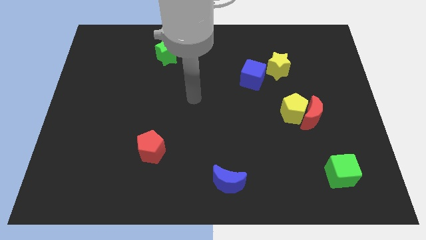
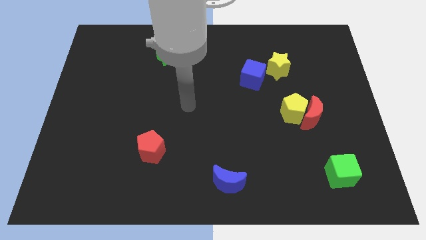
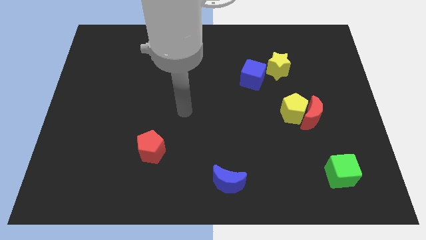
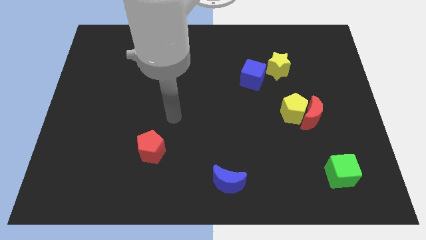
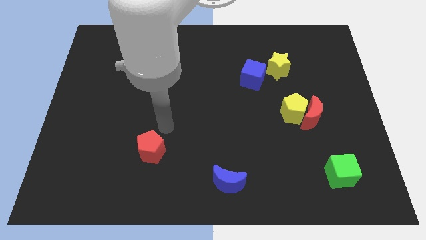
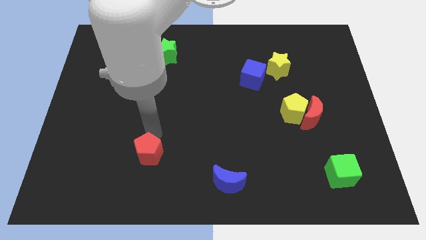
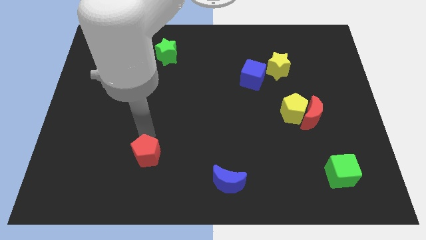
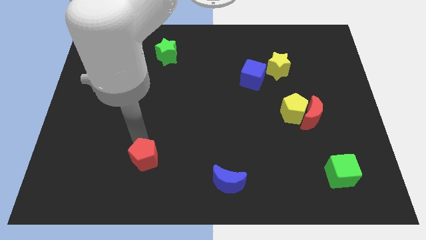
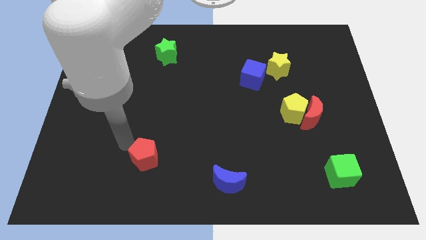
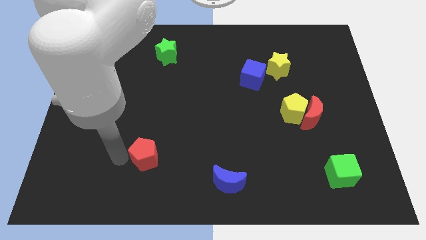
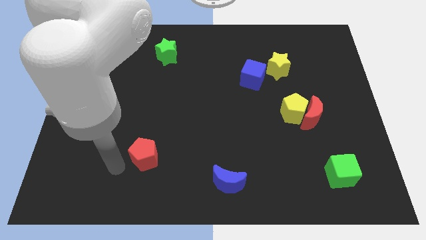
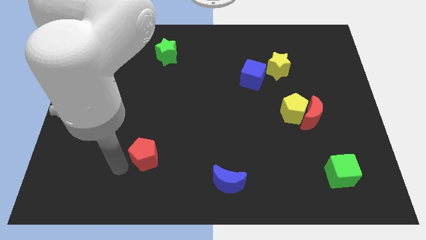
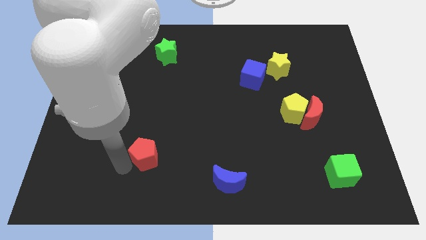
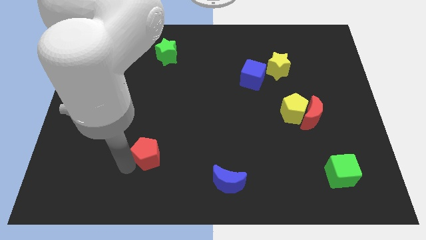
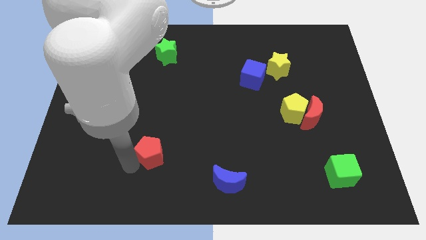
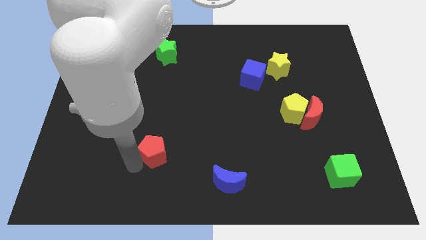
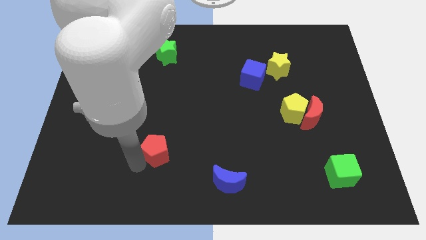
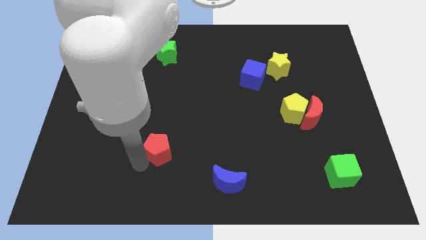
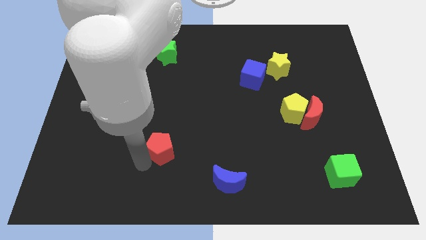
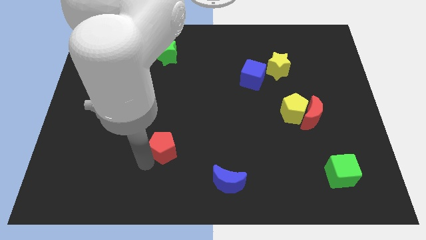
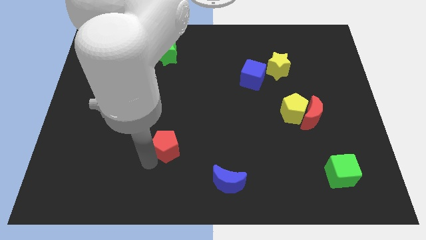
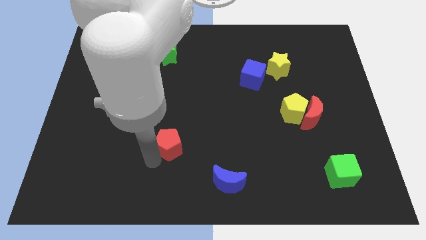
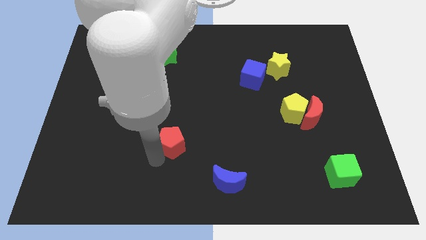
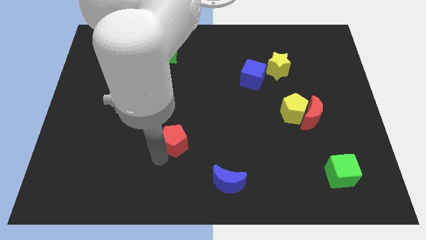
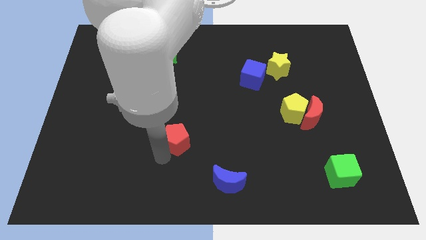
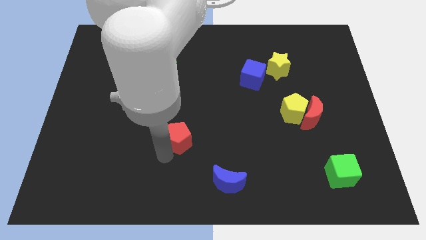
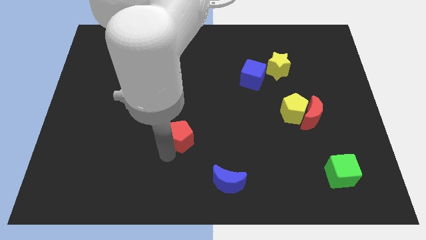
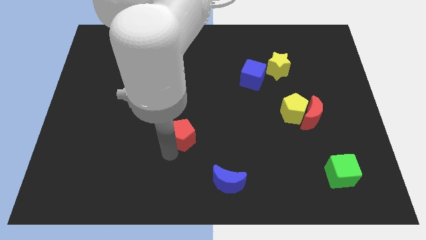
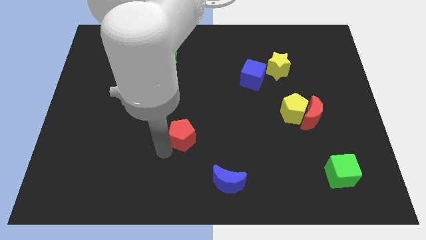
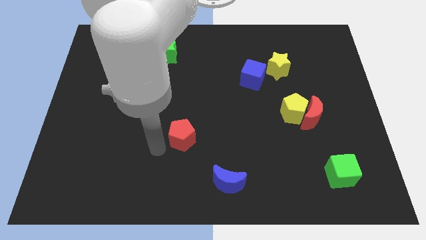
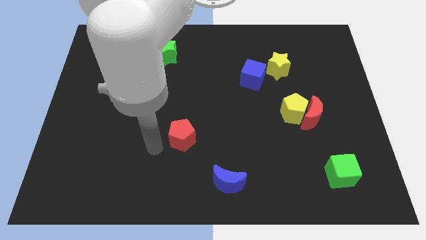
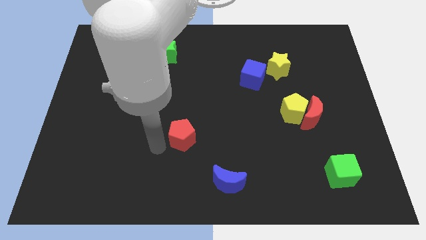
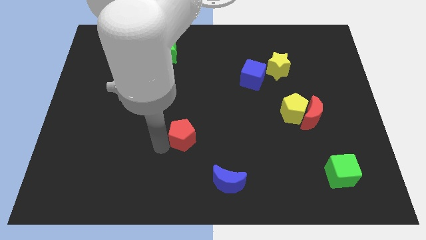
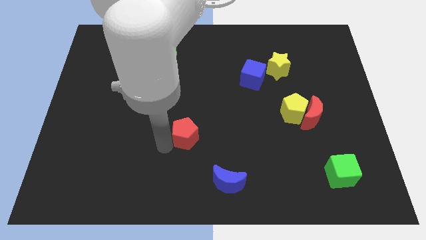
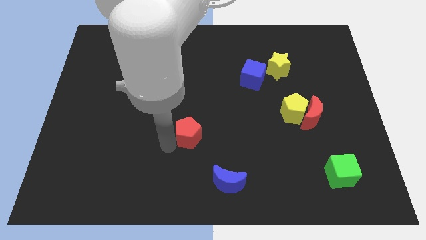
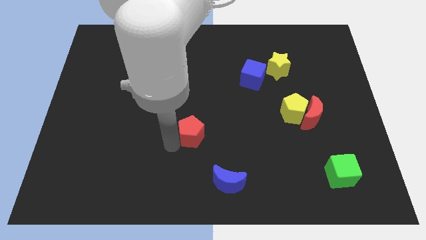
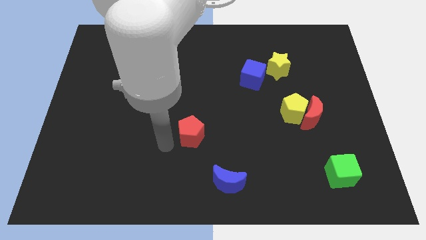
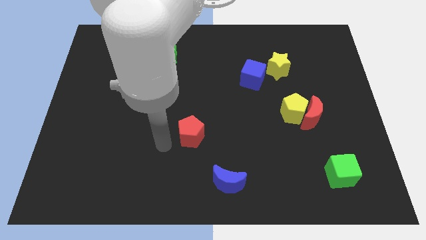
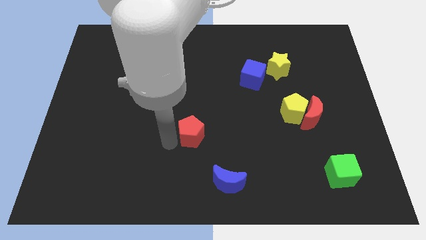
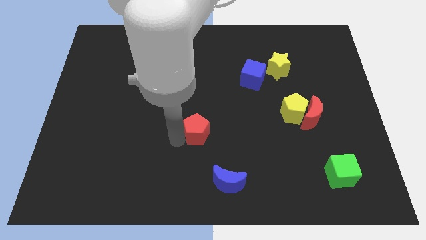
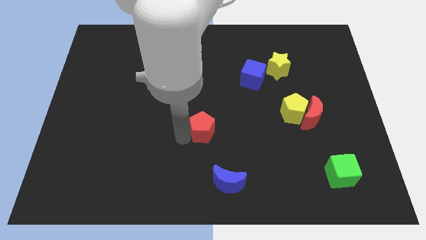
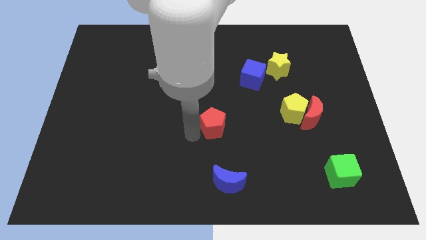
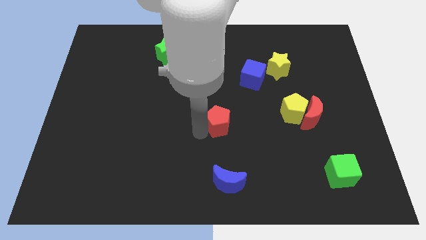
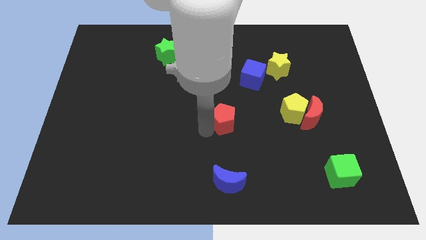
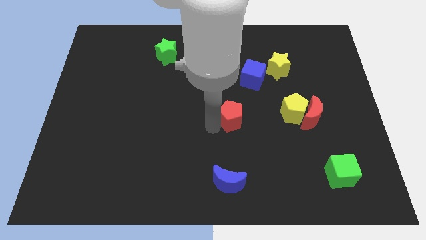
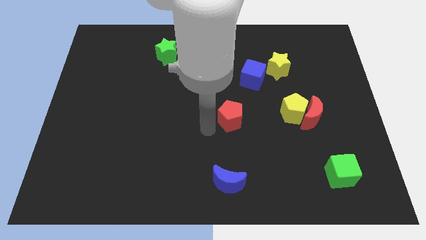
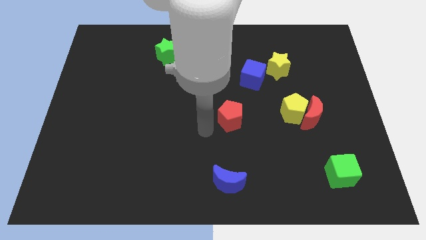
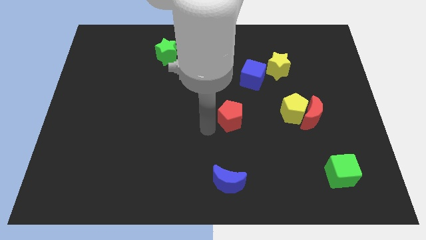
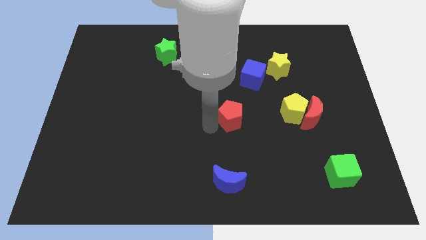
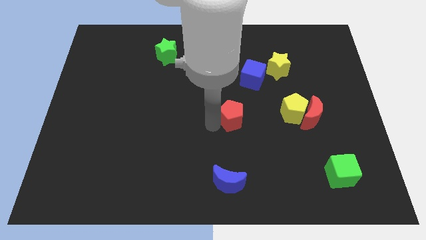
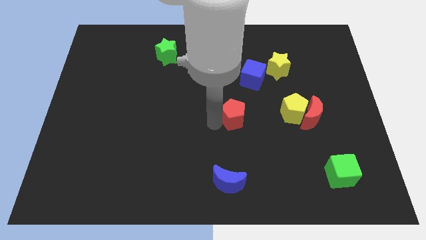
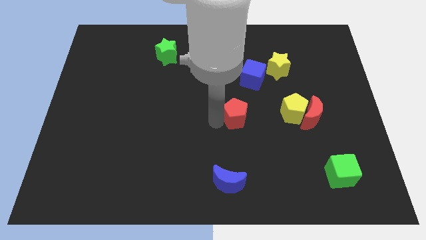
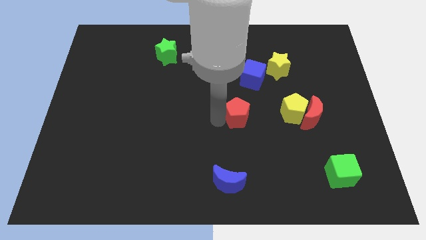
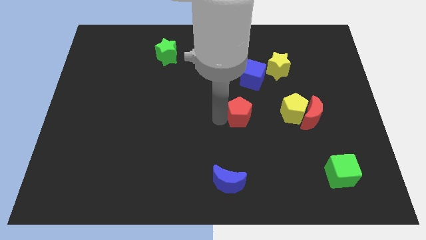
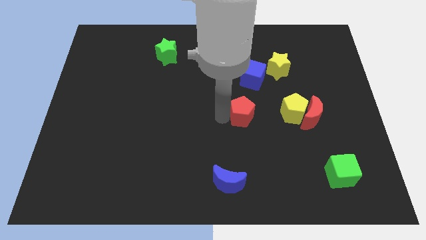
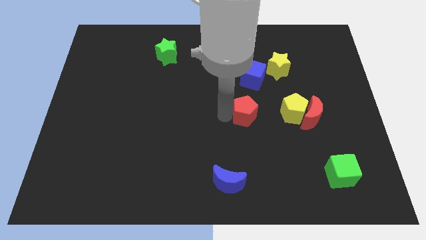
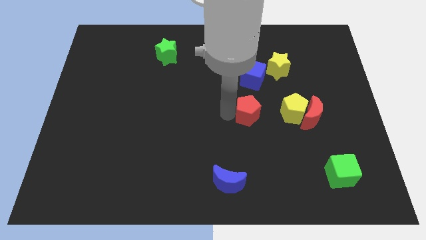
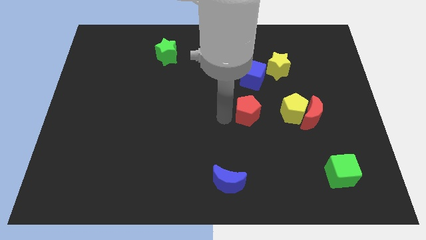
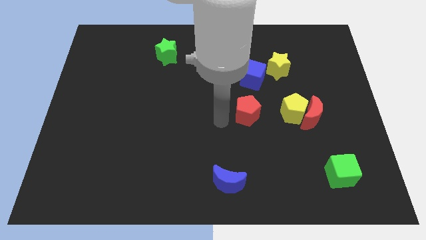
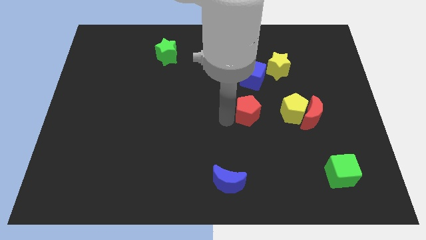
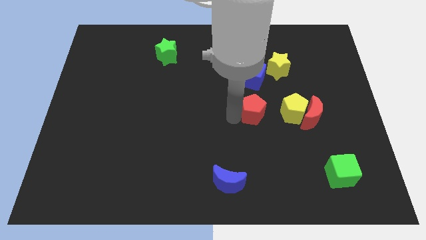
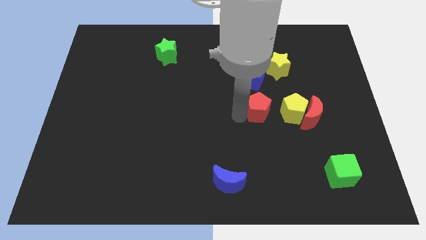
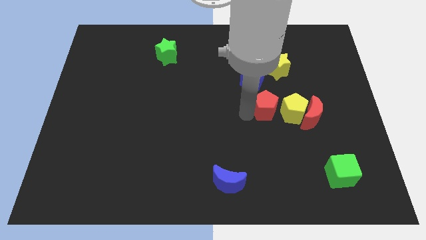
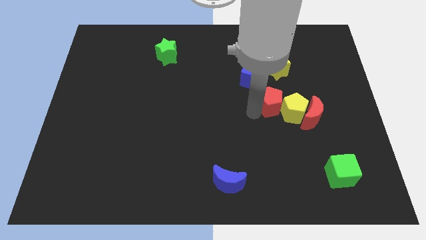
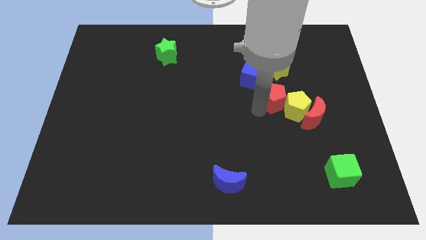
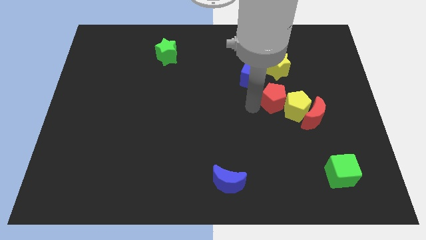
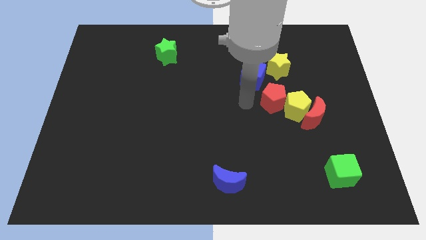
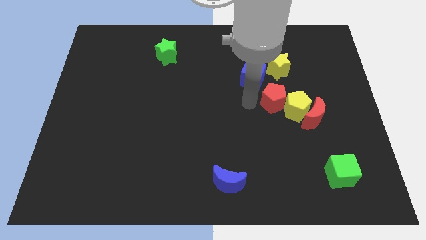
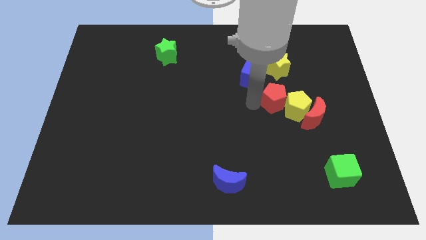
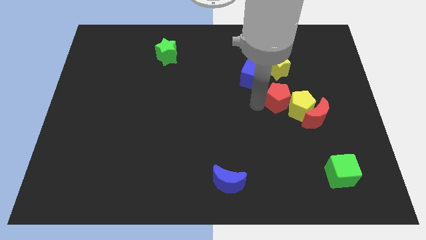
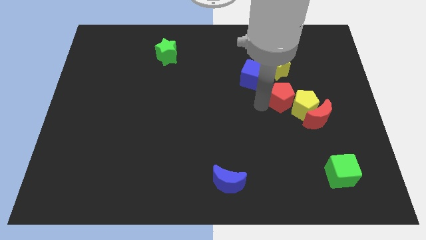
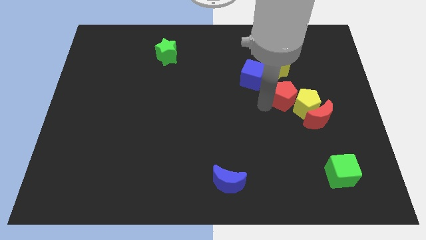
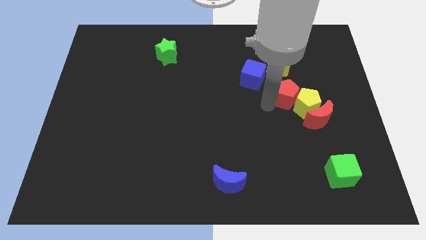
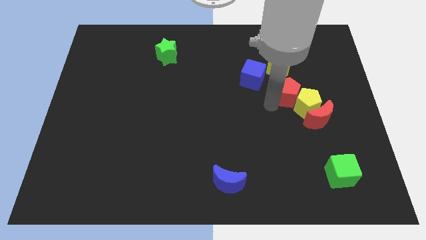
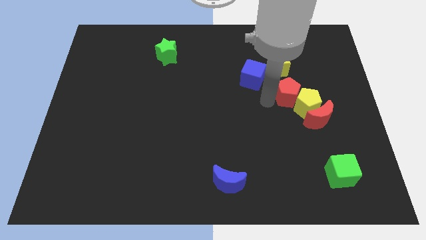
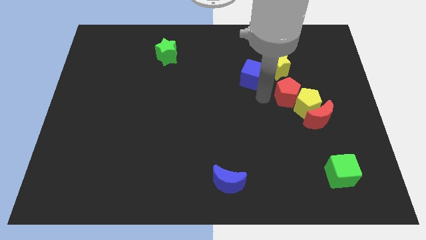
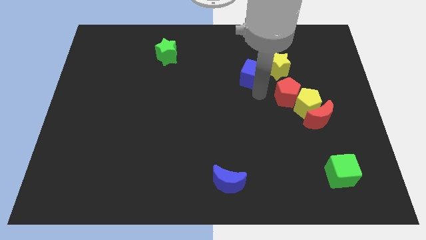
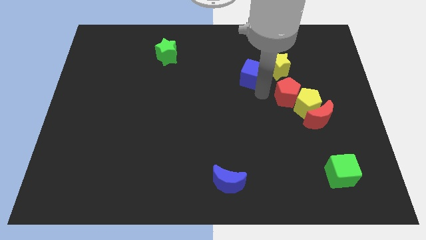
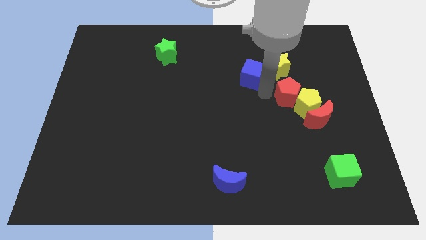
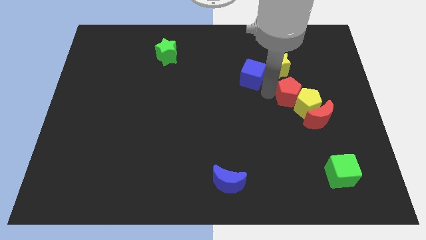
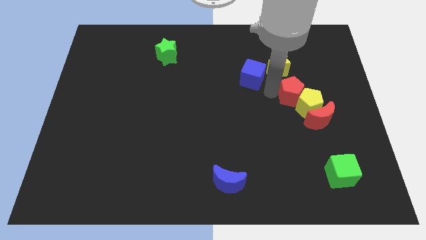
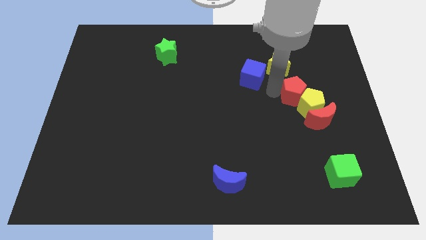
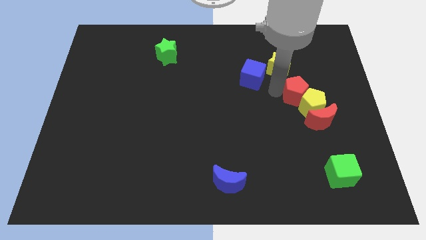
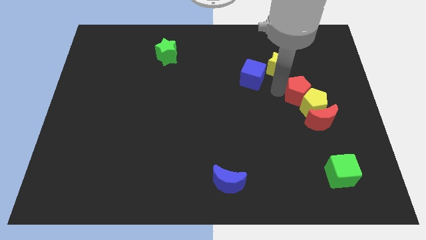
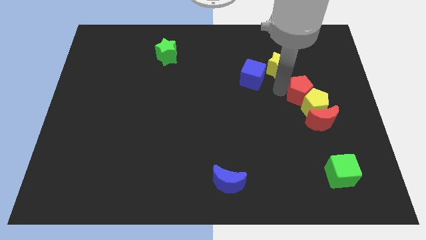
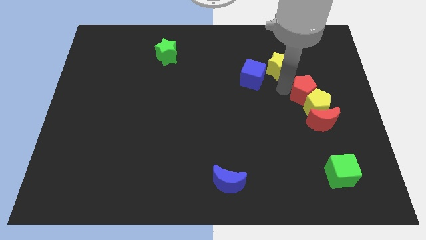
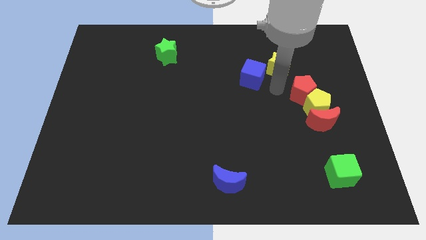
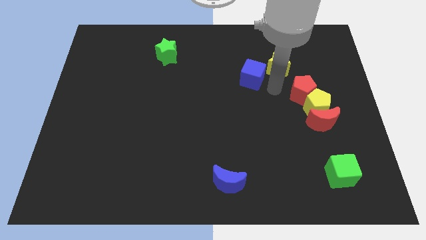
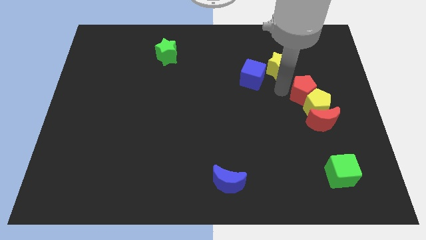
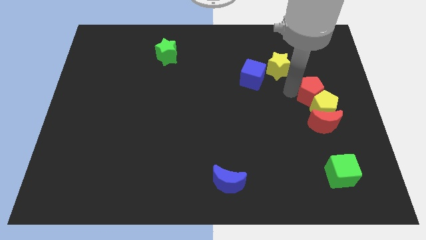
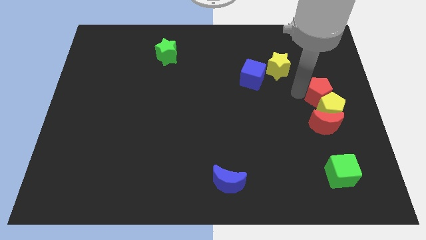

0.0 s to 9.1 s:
slide the red pentagon to the right side of the board
